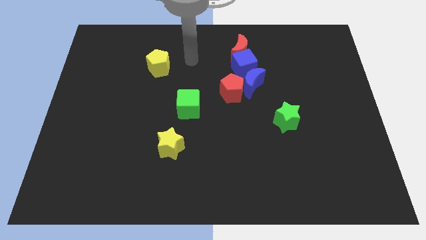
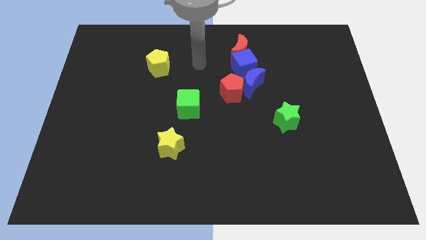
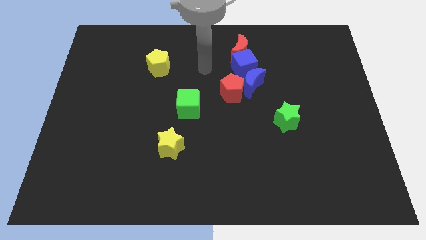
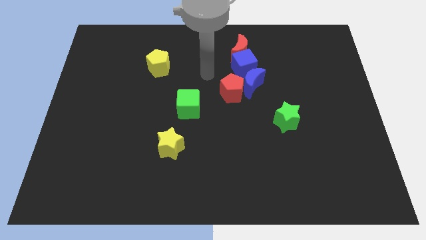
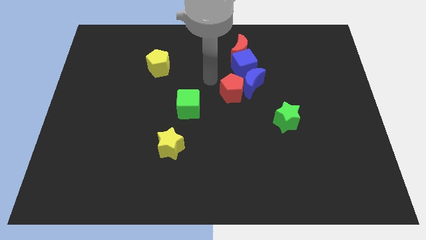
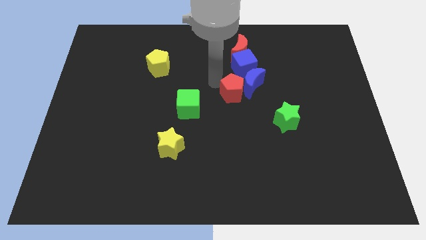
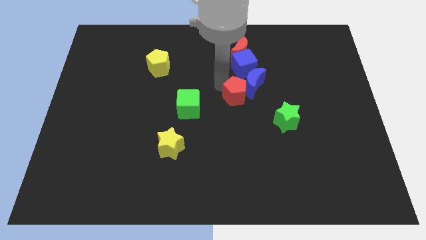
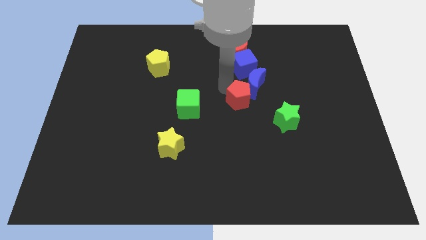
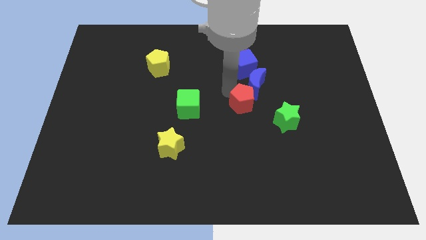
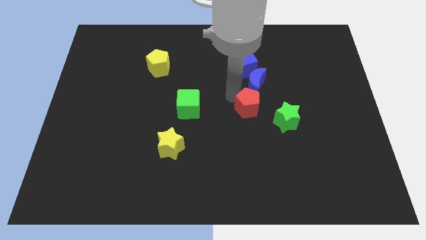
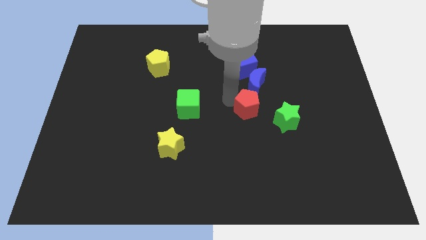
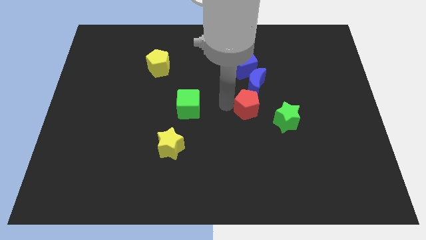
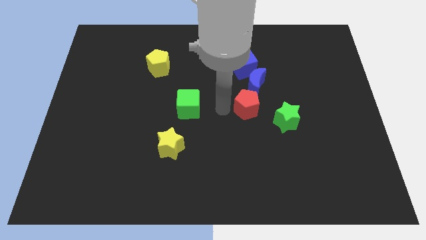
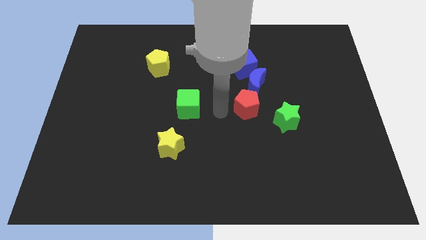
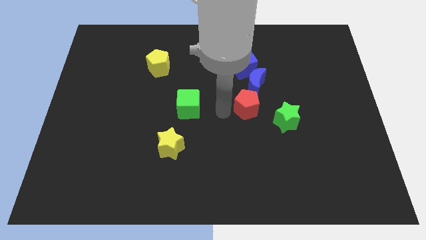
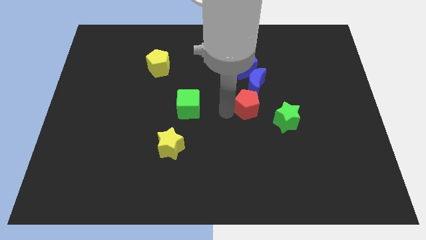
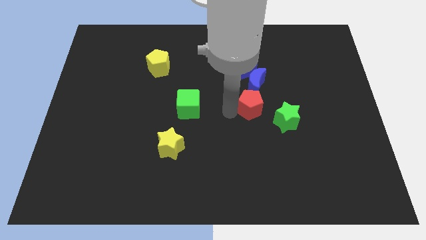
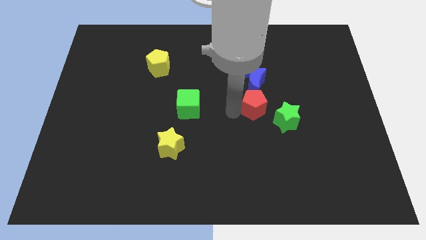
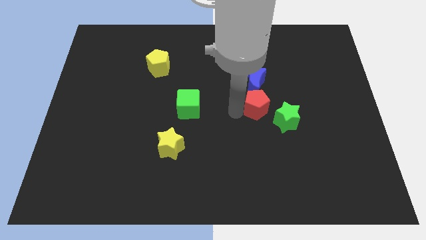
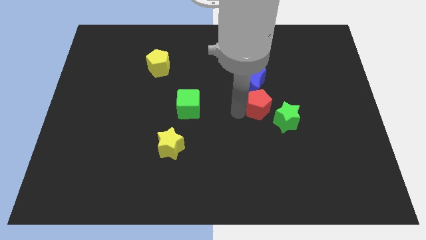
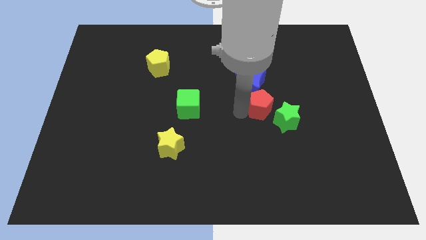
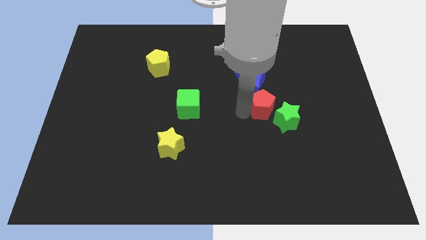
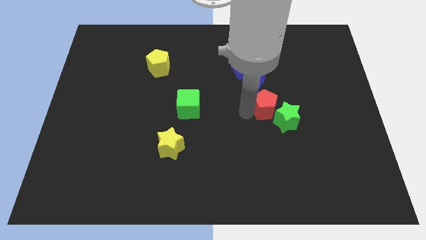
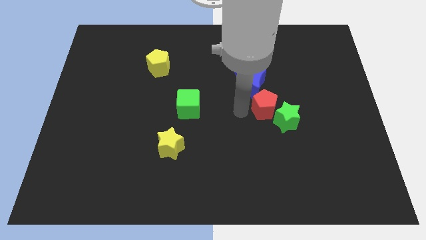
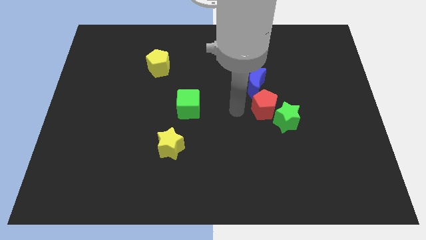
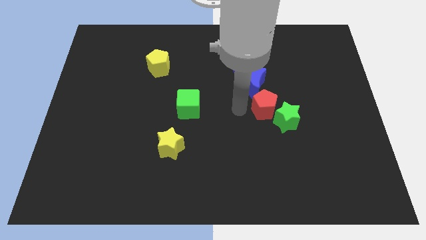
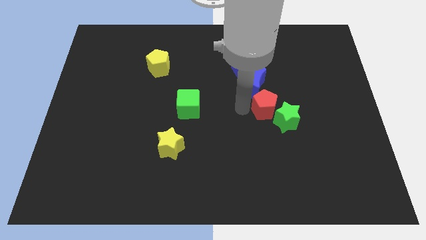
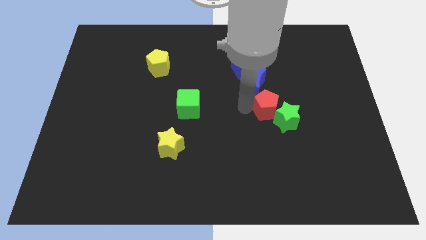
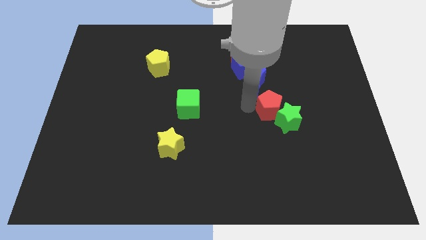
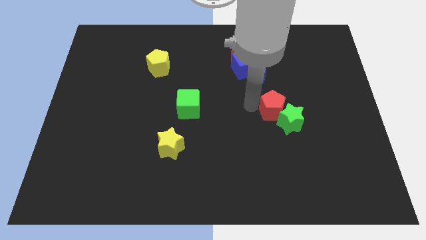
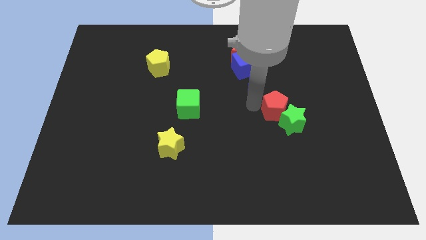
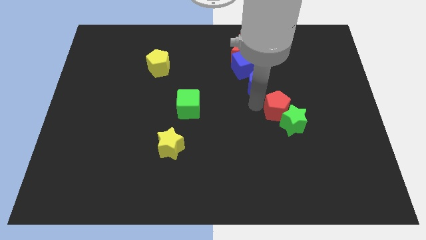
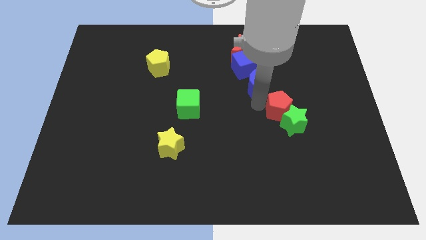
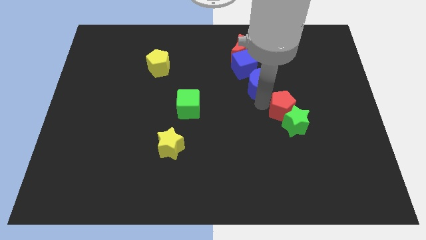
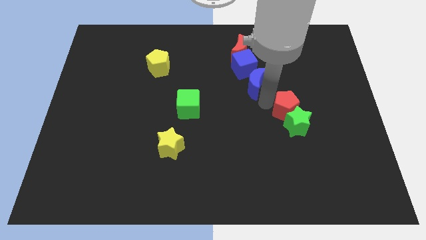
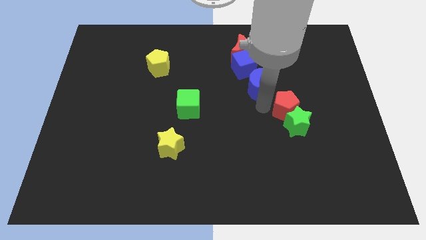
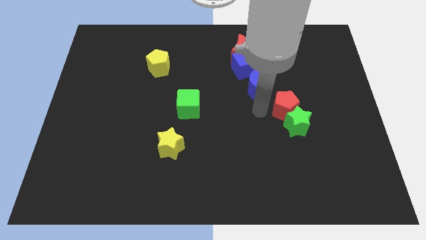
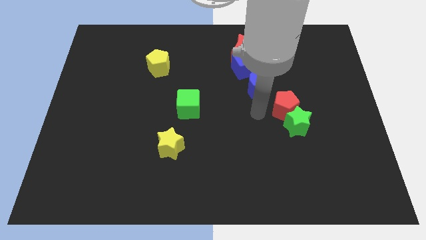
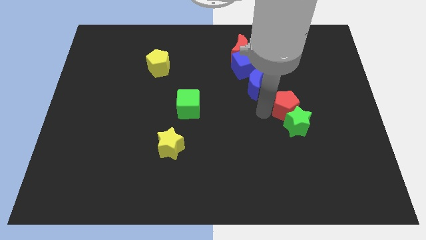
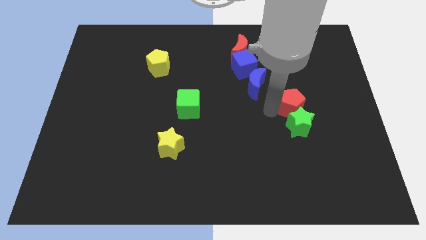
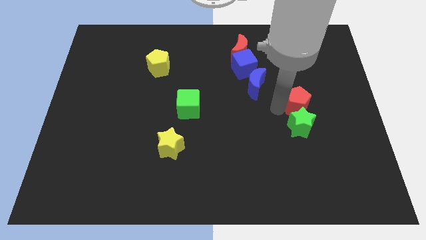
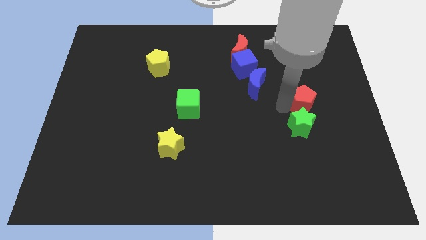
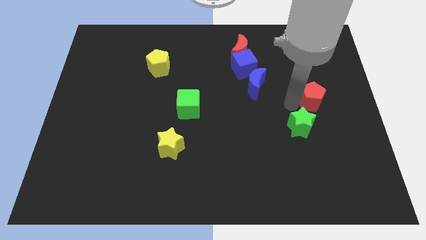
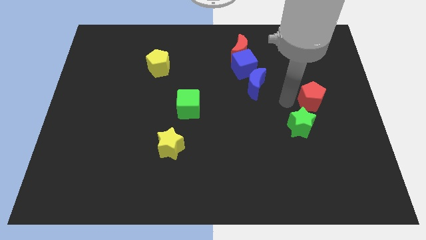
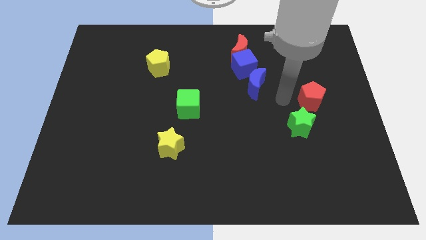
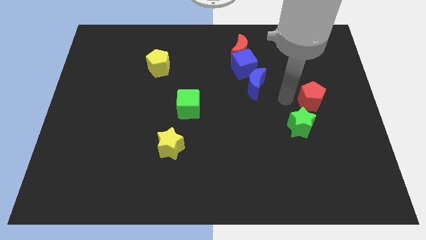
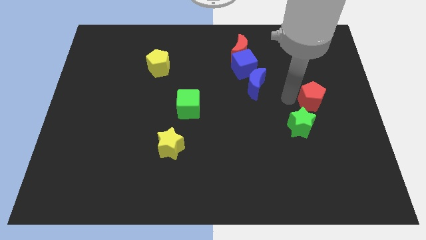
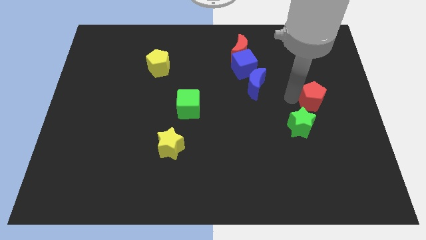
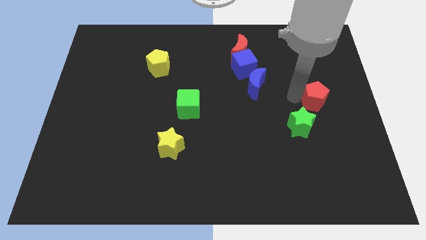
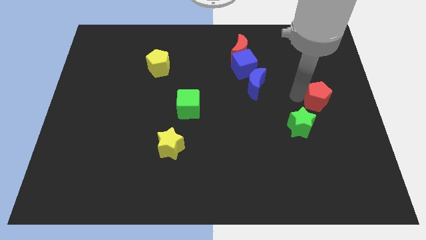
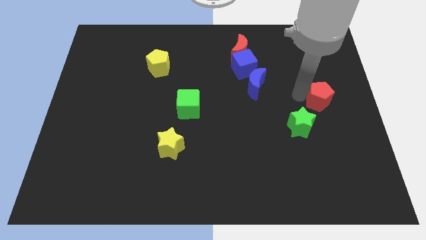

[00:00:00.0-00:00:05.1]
move the red pentagon to the right side

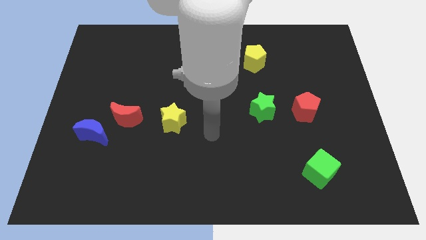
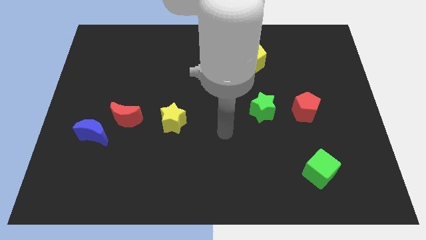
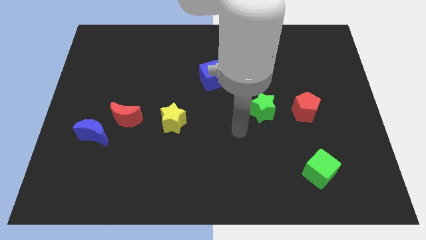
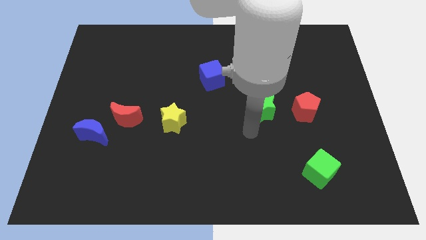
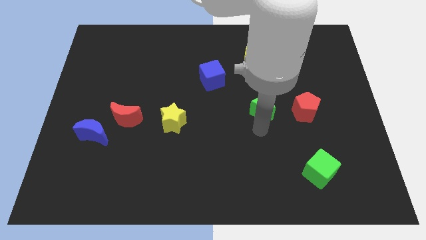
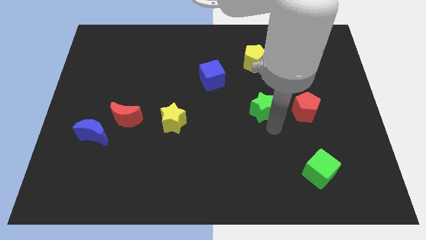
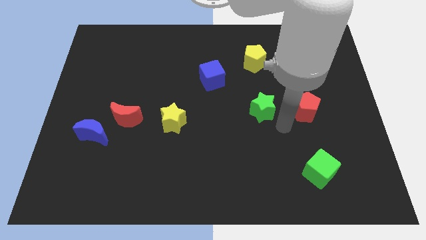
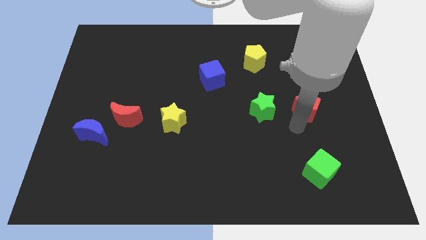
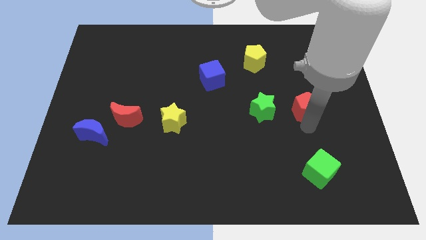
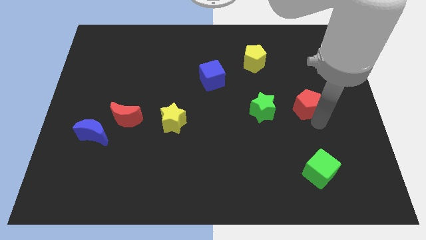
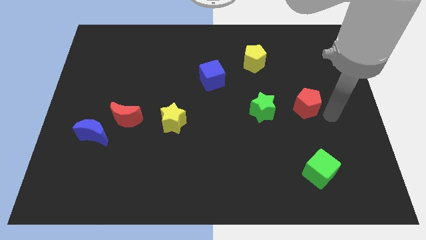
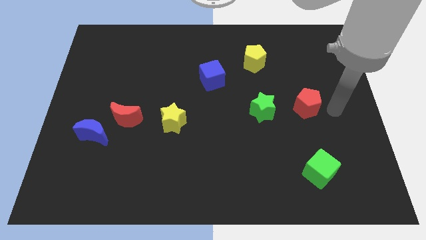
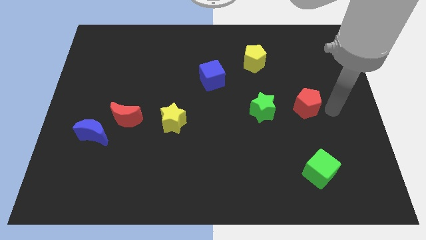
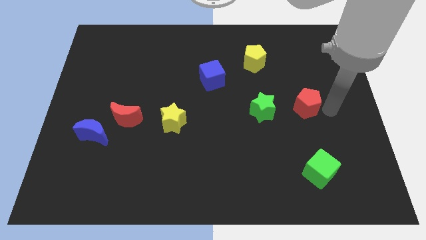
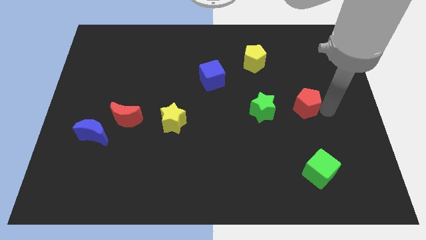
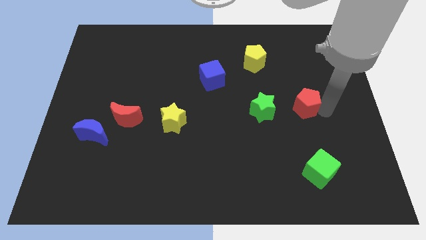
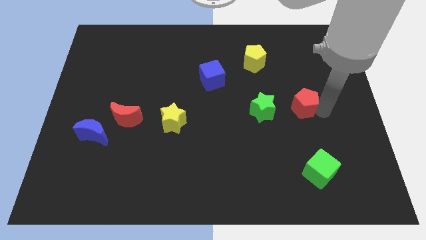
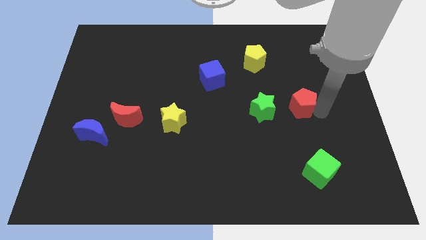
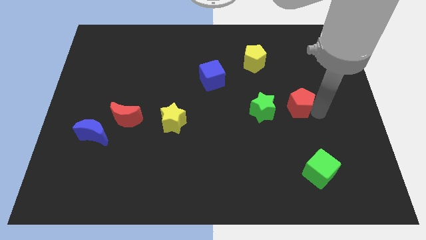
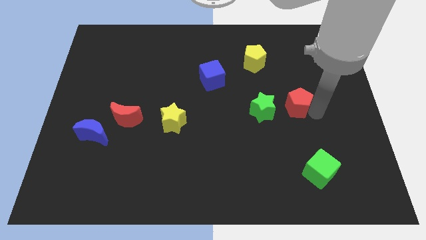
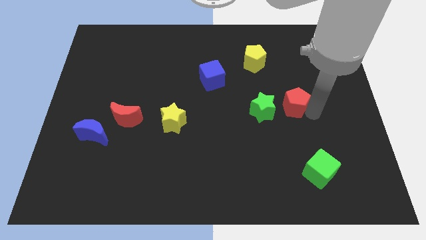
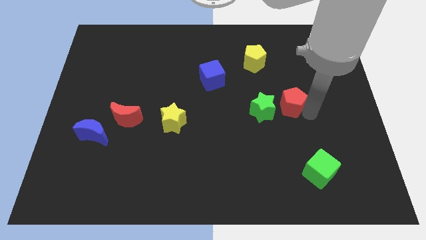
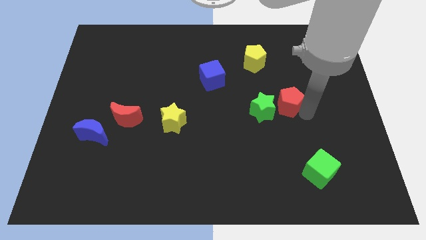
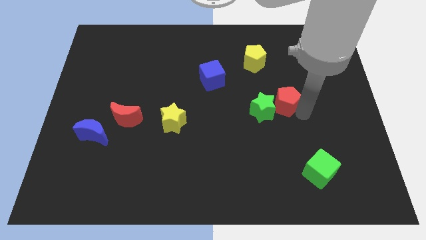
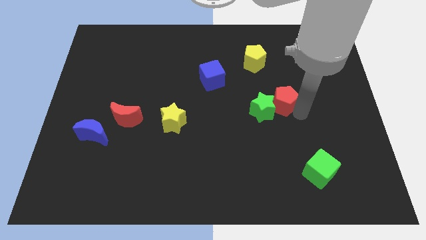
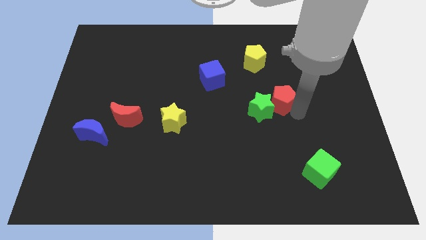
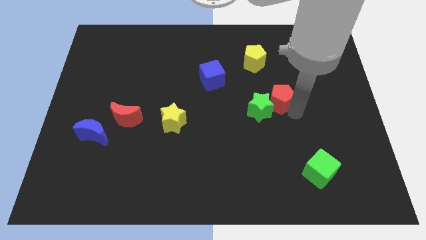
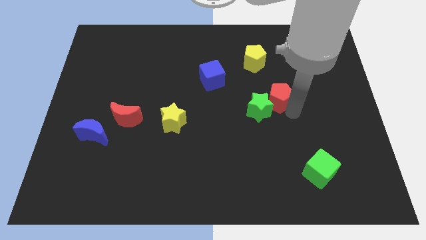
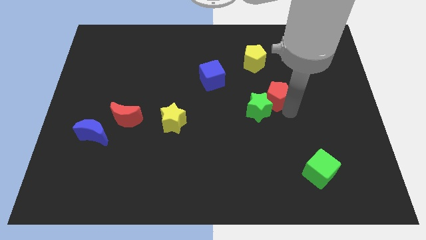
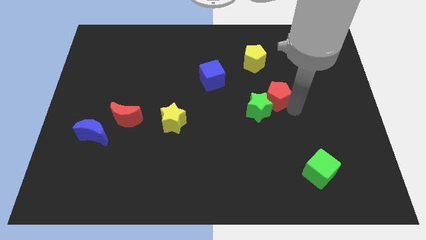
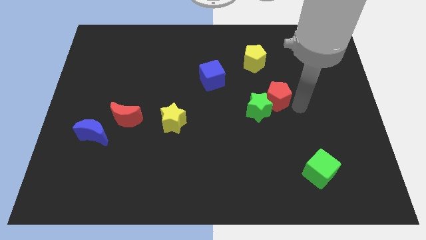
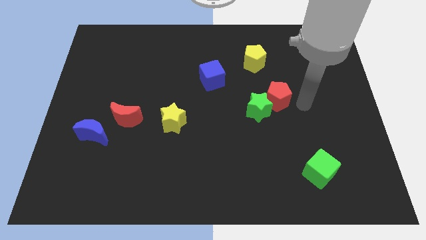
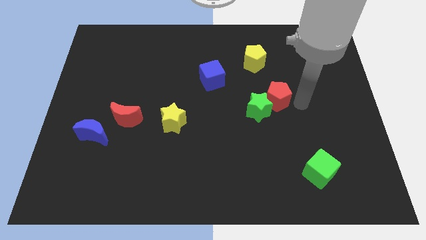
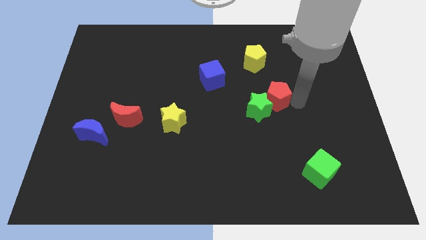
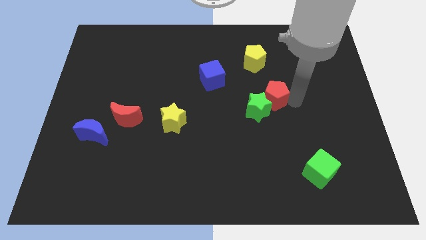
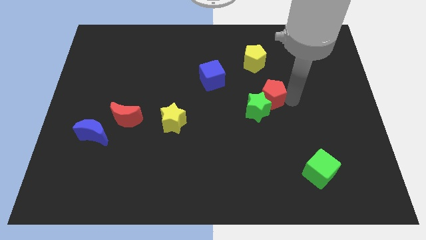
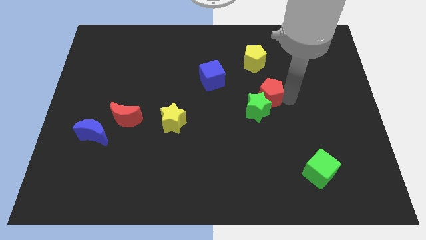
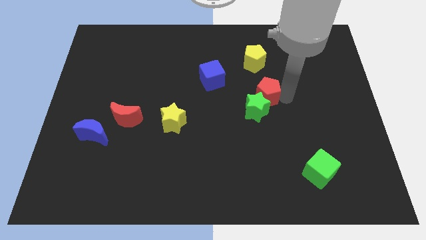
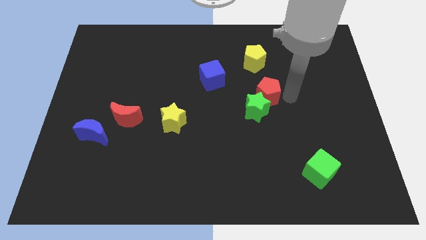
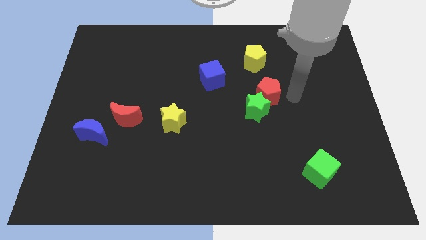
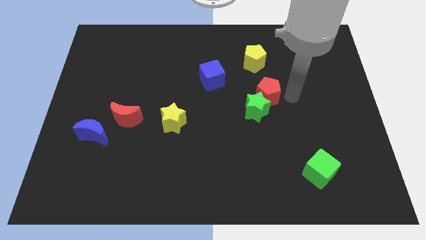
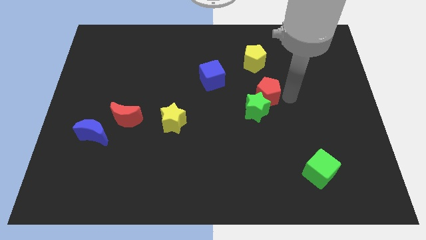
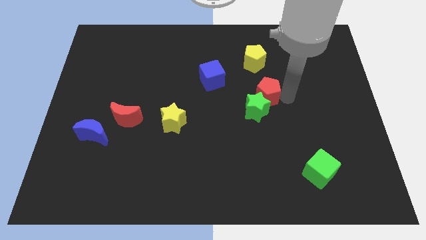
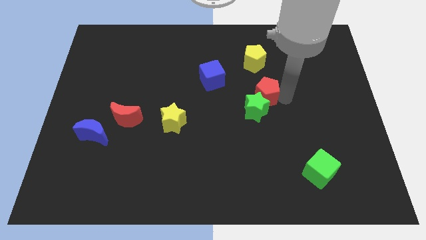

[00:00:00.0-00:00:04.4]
slide the red pentagon to the middle of the board
